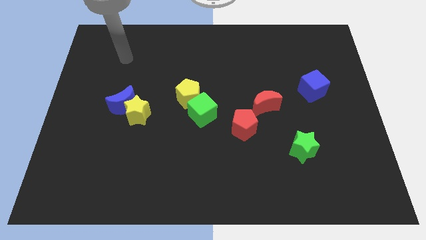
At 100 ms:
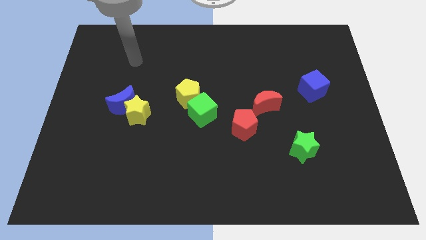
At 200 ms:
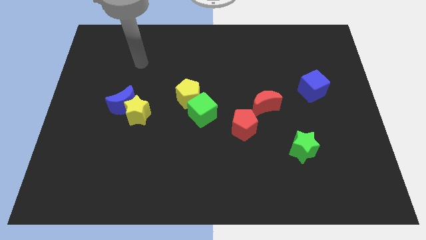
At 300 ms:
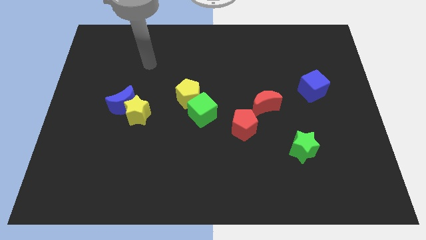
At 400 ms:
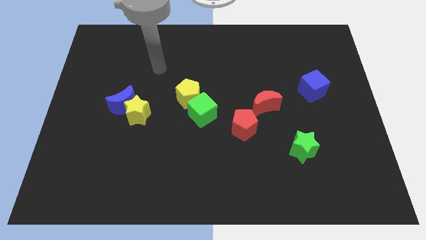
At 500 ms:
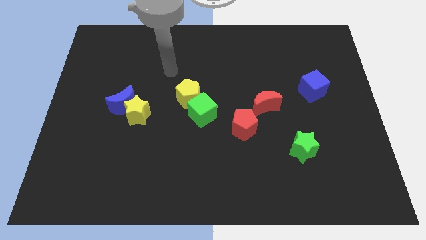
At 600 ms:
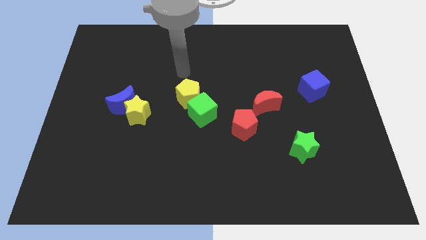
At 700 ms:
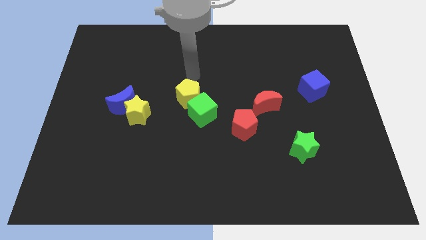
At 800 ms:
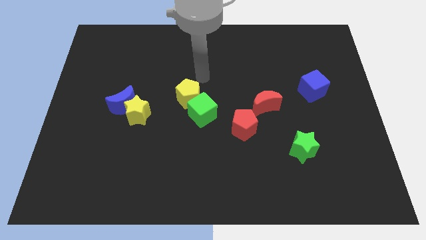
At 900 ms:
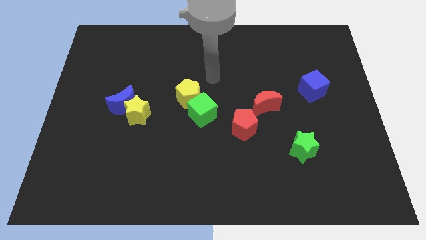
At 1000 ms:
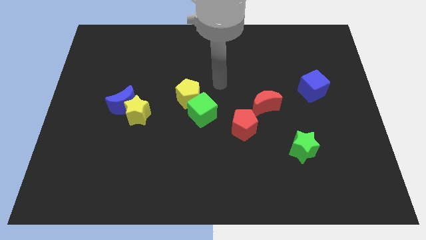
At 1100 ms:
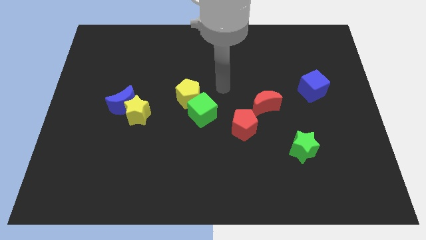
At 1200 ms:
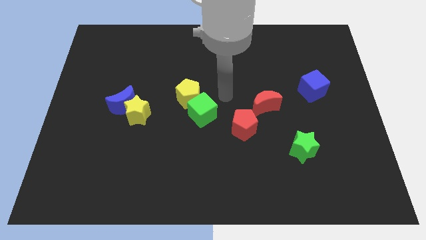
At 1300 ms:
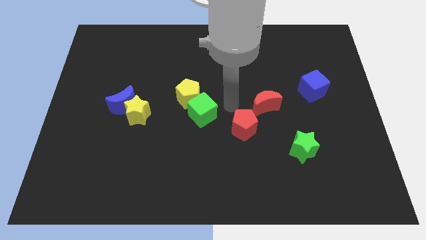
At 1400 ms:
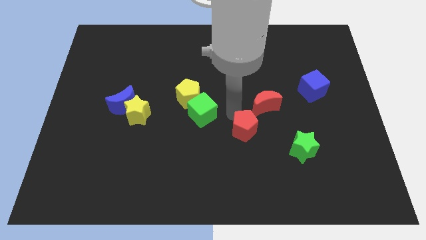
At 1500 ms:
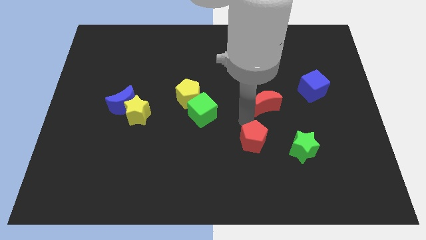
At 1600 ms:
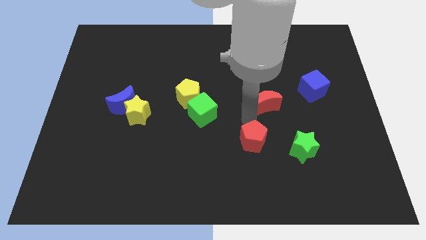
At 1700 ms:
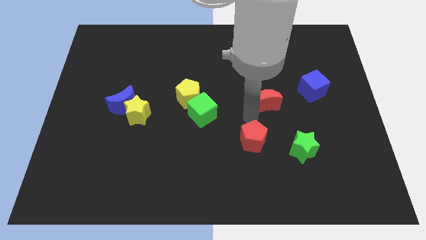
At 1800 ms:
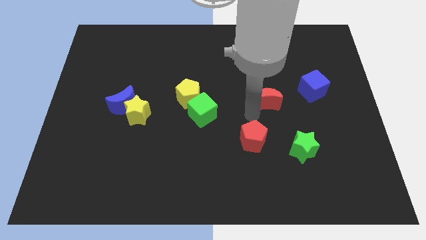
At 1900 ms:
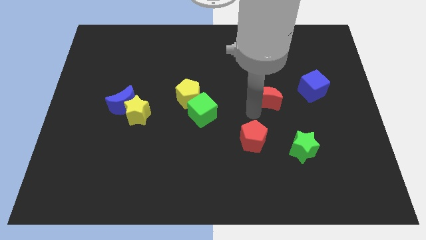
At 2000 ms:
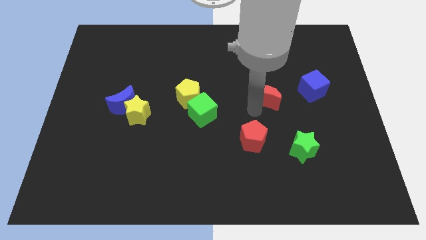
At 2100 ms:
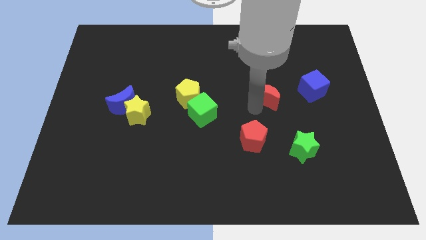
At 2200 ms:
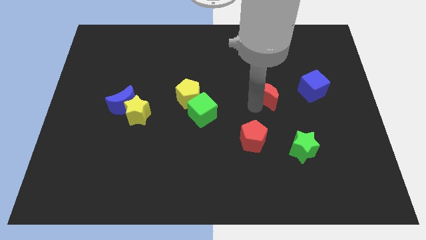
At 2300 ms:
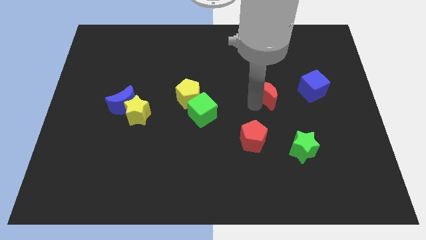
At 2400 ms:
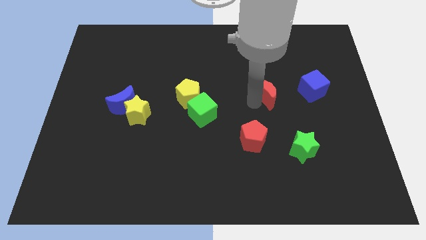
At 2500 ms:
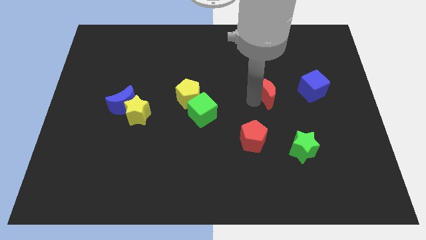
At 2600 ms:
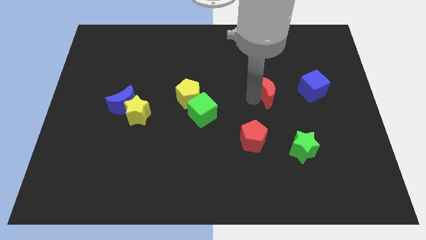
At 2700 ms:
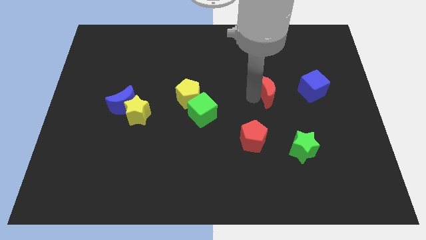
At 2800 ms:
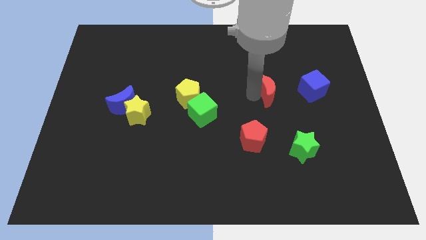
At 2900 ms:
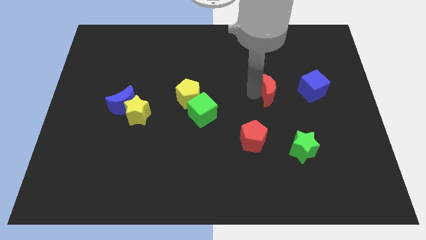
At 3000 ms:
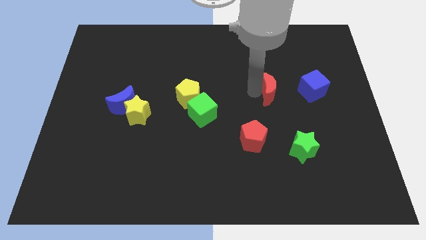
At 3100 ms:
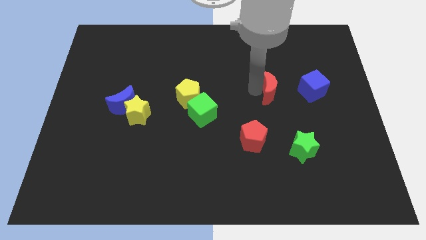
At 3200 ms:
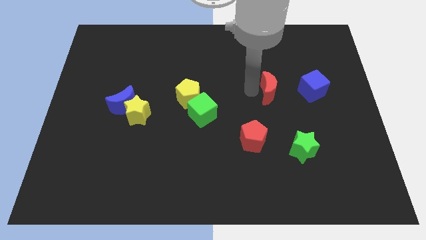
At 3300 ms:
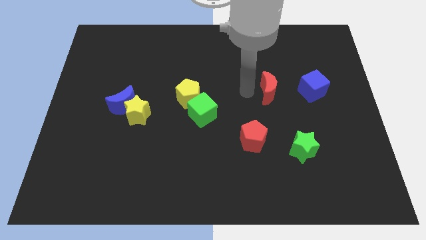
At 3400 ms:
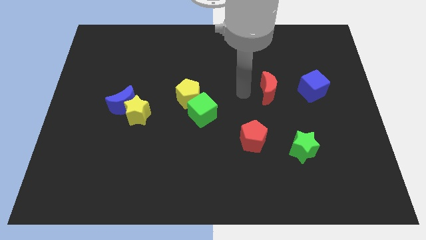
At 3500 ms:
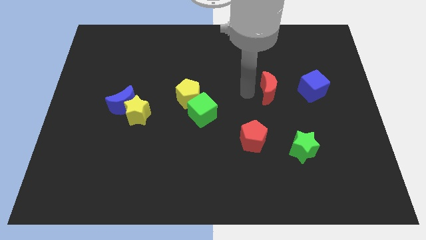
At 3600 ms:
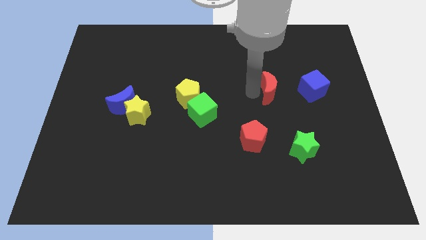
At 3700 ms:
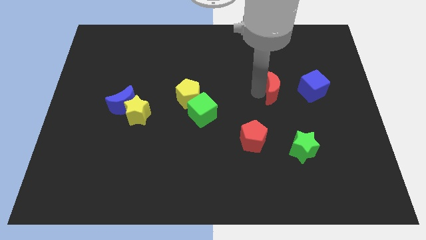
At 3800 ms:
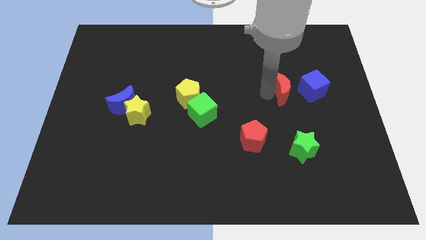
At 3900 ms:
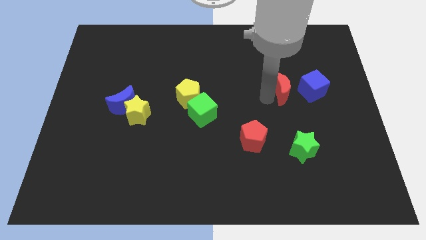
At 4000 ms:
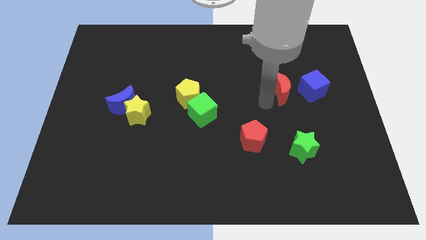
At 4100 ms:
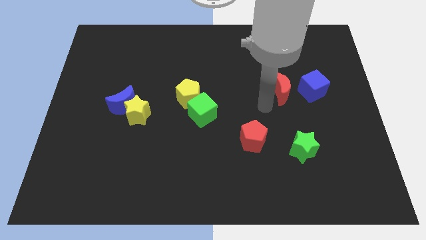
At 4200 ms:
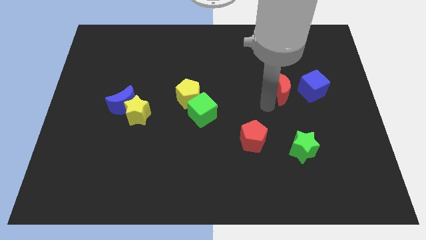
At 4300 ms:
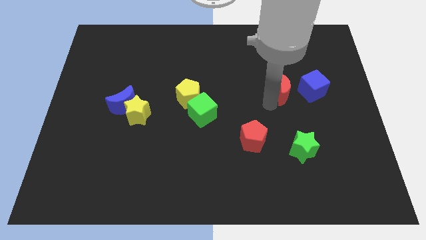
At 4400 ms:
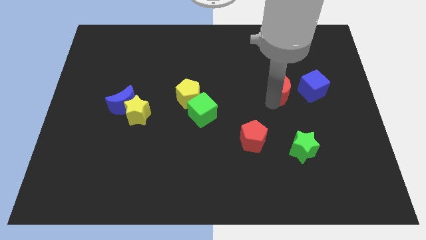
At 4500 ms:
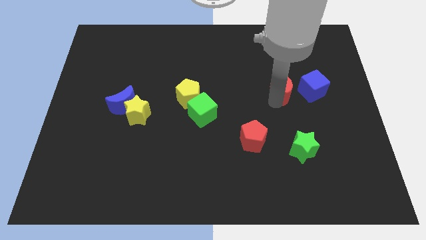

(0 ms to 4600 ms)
slightly move the red moon upwards and to the right

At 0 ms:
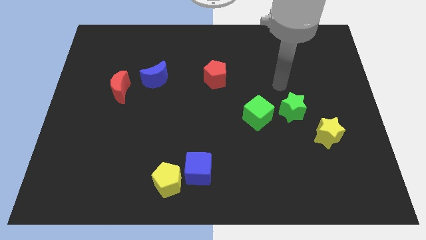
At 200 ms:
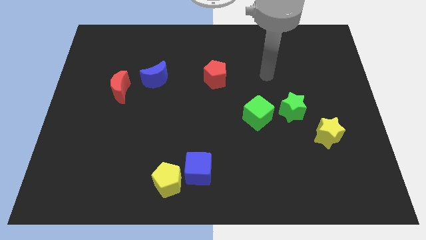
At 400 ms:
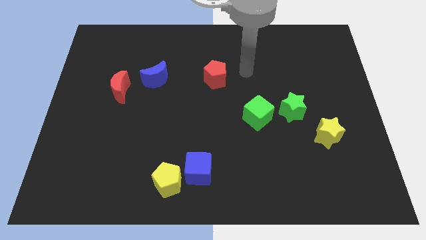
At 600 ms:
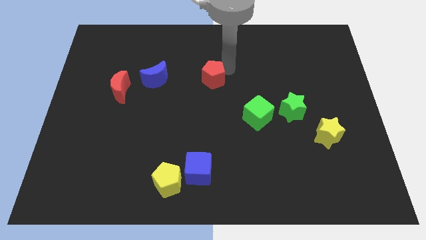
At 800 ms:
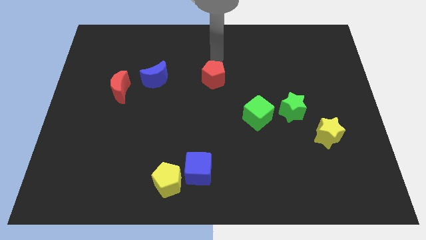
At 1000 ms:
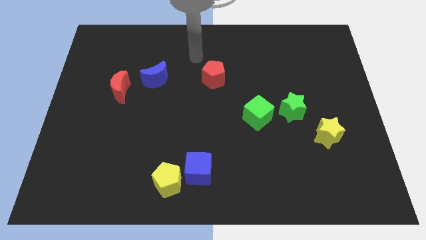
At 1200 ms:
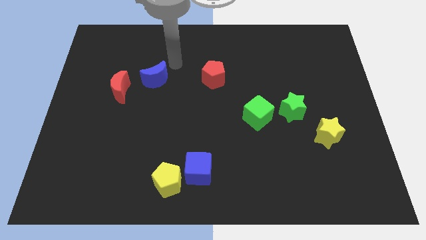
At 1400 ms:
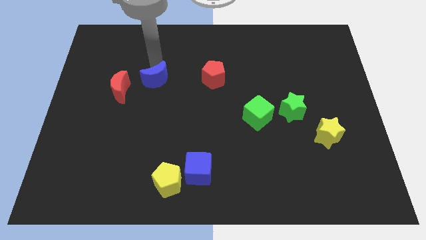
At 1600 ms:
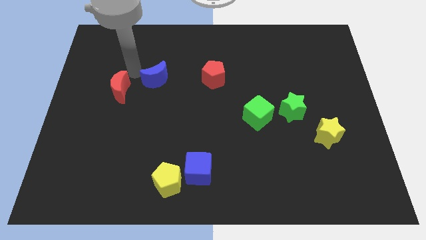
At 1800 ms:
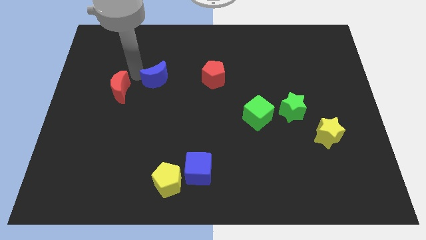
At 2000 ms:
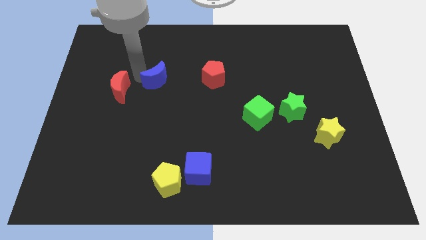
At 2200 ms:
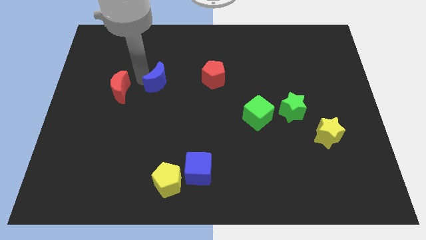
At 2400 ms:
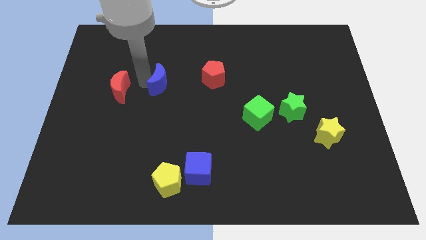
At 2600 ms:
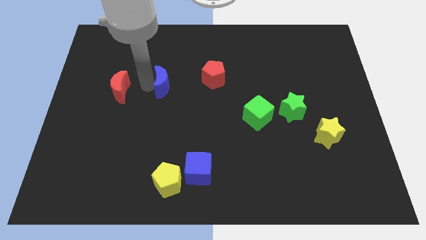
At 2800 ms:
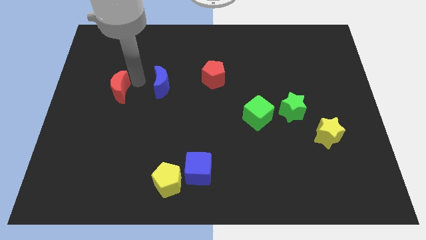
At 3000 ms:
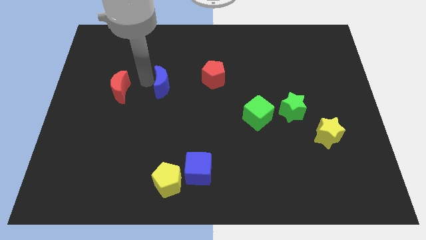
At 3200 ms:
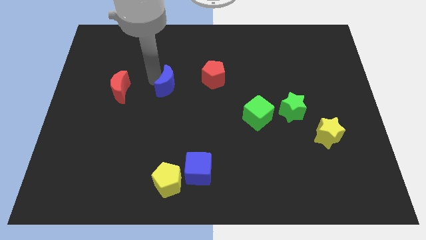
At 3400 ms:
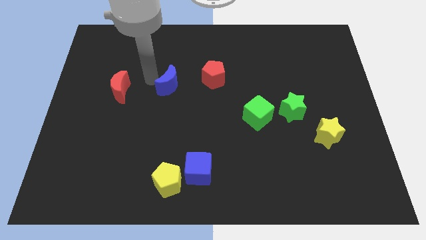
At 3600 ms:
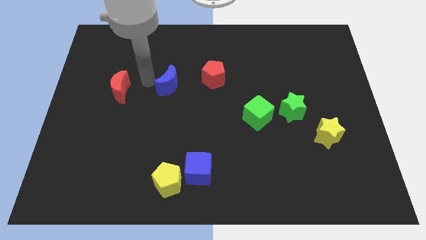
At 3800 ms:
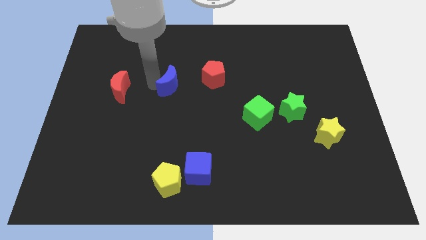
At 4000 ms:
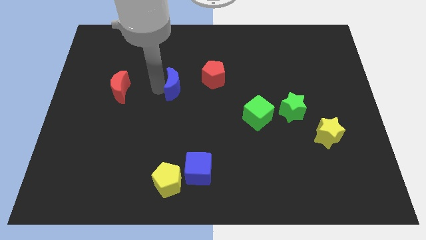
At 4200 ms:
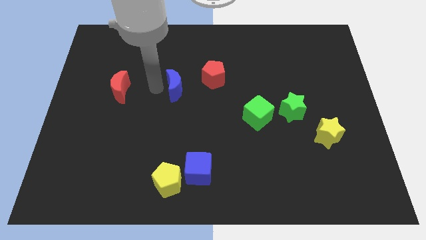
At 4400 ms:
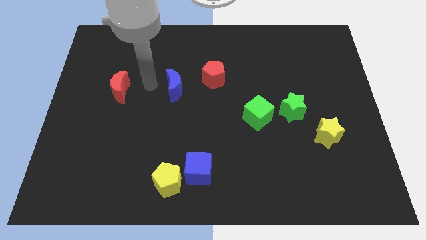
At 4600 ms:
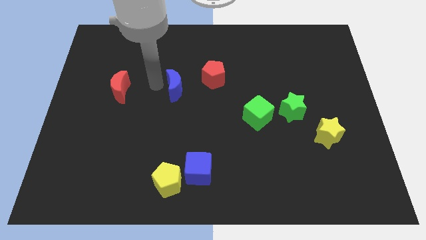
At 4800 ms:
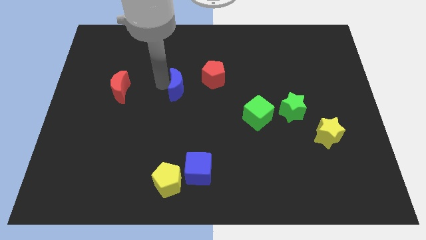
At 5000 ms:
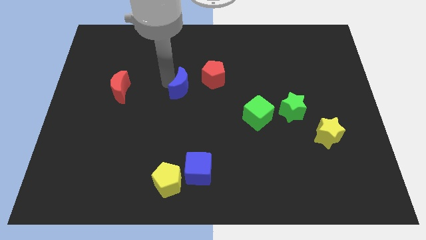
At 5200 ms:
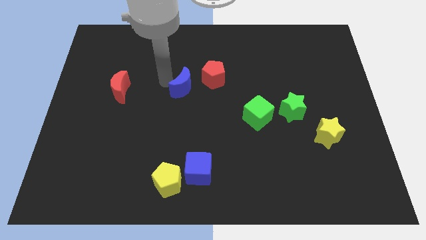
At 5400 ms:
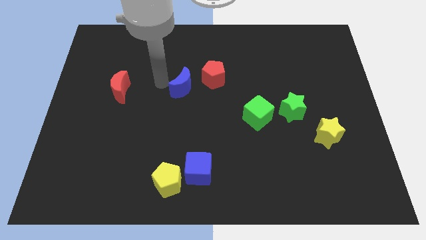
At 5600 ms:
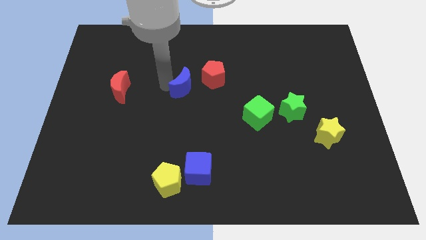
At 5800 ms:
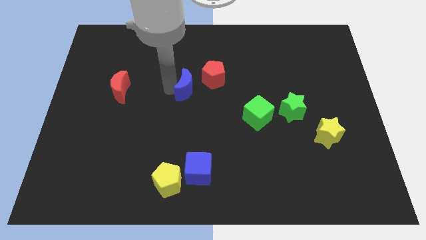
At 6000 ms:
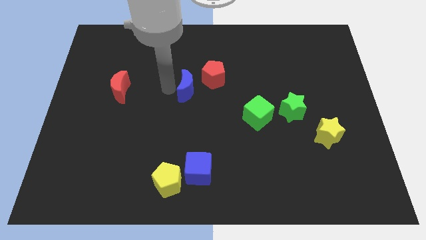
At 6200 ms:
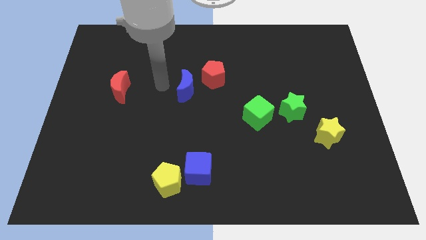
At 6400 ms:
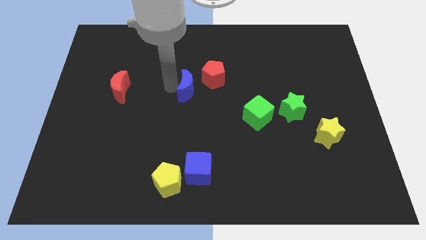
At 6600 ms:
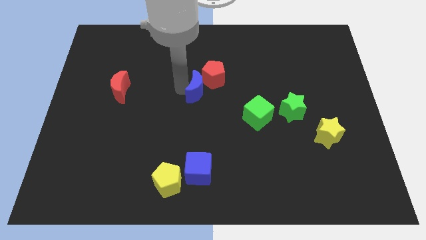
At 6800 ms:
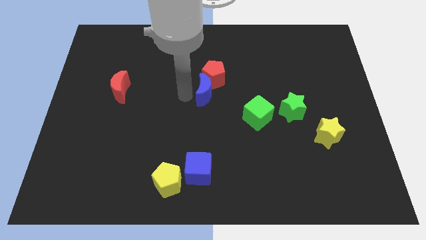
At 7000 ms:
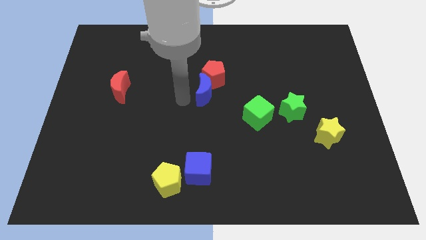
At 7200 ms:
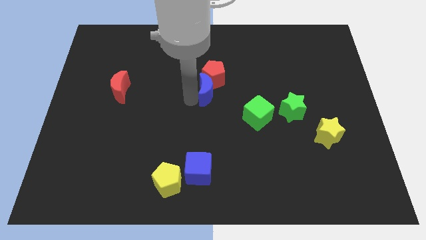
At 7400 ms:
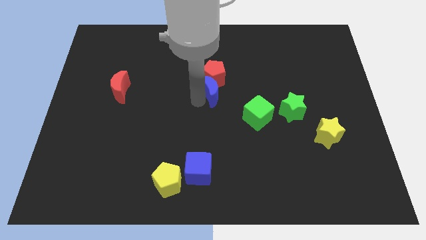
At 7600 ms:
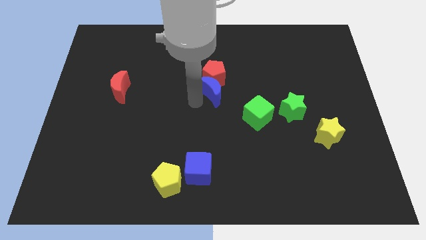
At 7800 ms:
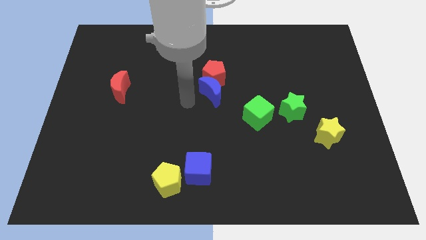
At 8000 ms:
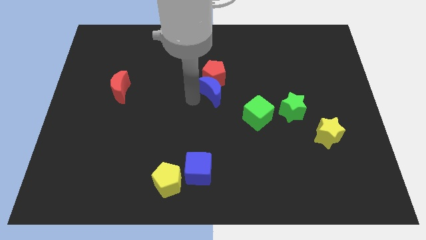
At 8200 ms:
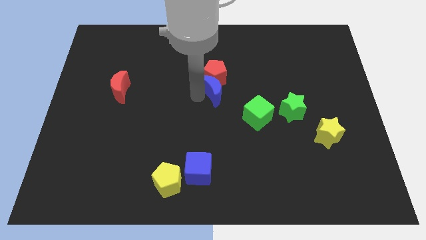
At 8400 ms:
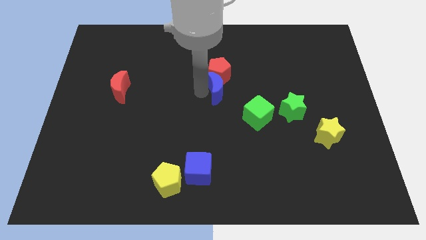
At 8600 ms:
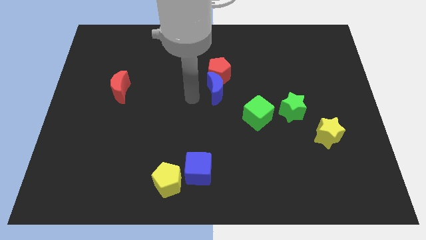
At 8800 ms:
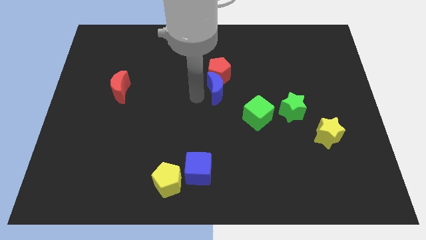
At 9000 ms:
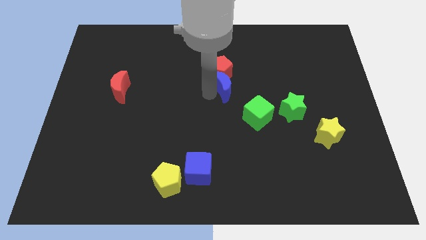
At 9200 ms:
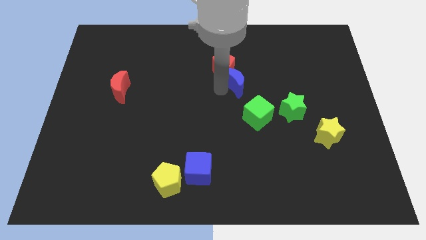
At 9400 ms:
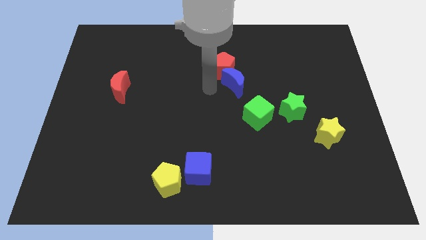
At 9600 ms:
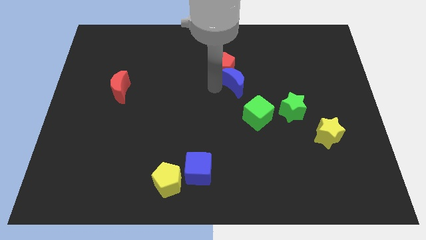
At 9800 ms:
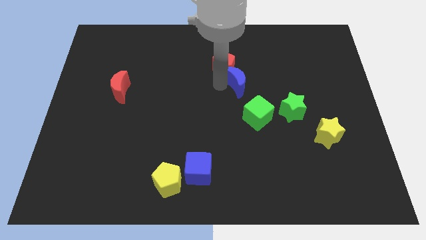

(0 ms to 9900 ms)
slide the blue moon right
